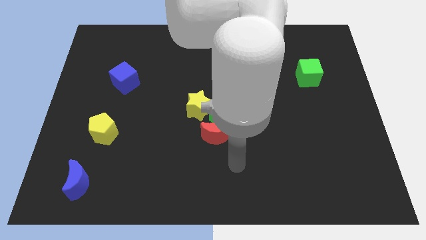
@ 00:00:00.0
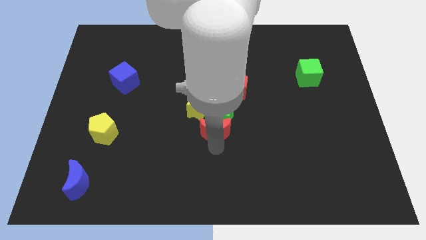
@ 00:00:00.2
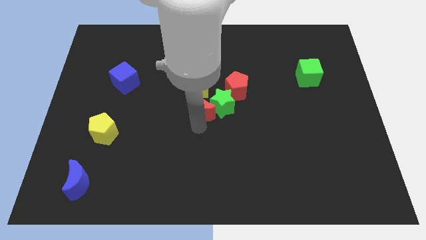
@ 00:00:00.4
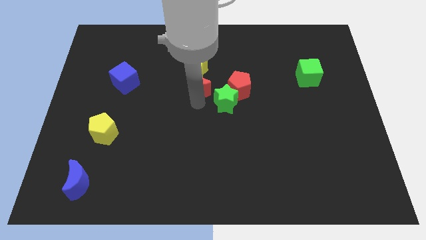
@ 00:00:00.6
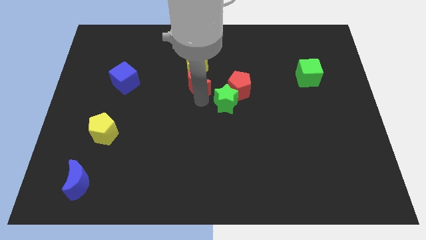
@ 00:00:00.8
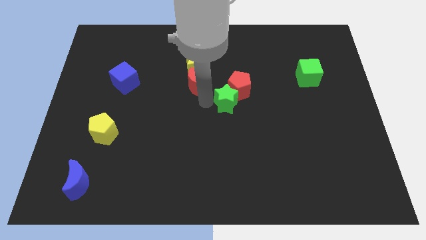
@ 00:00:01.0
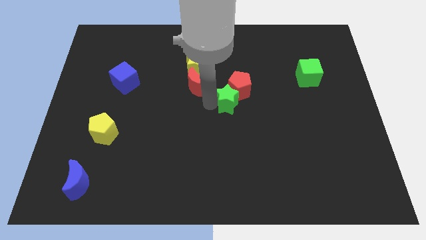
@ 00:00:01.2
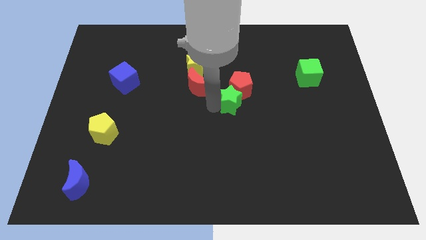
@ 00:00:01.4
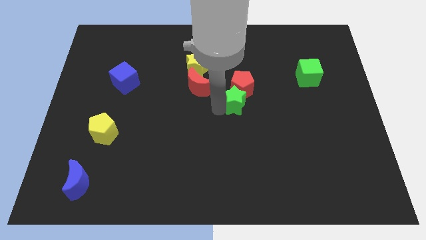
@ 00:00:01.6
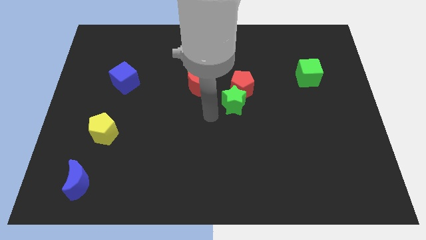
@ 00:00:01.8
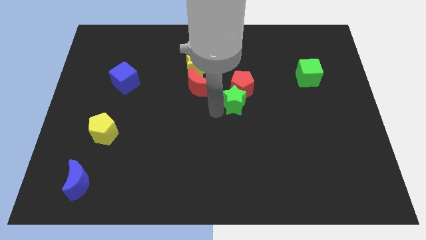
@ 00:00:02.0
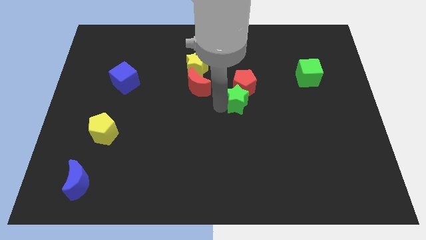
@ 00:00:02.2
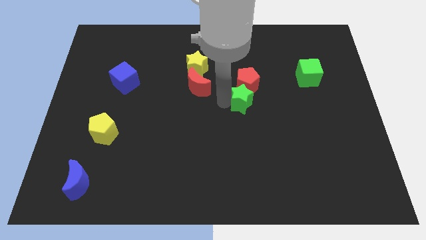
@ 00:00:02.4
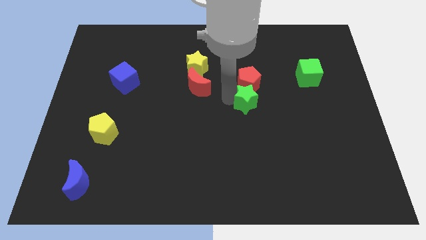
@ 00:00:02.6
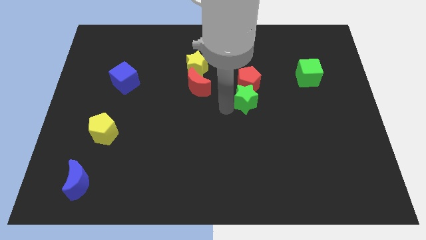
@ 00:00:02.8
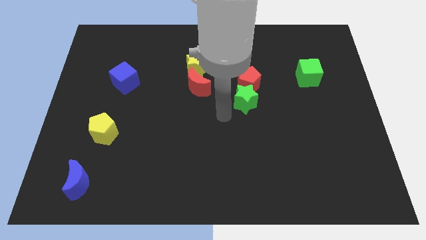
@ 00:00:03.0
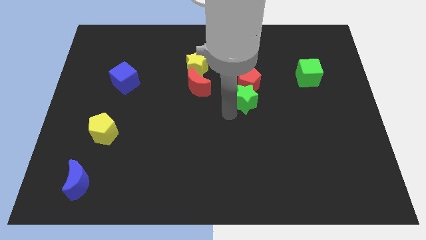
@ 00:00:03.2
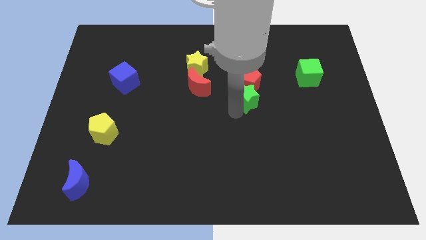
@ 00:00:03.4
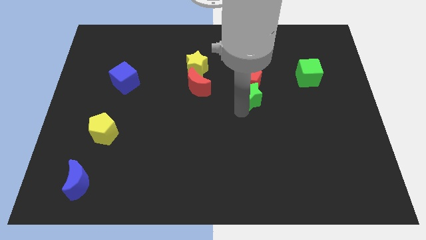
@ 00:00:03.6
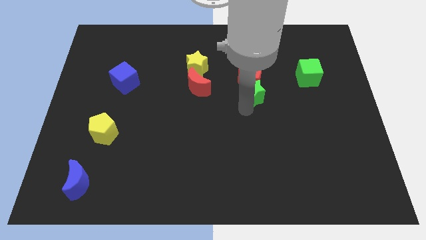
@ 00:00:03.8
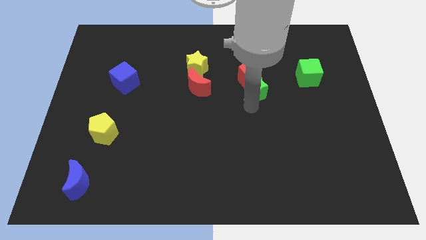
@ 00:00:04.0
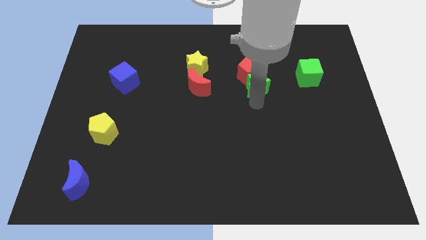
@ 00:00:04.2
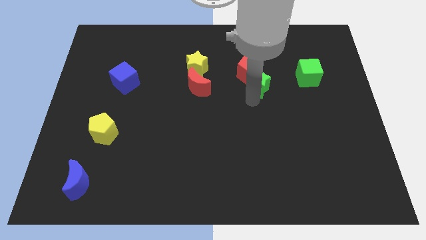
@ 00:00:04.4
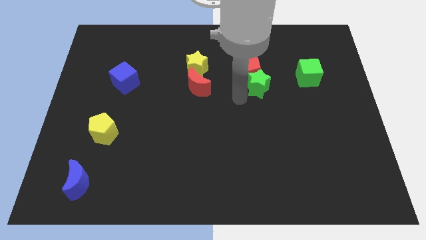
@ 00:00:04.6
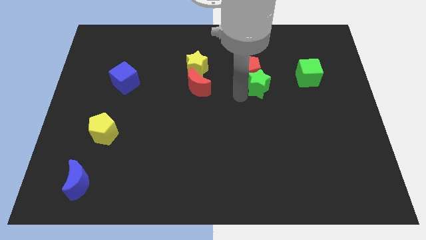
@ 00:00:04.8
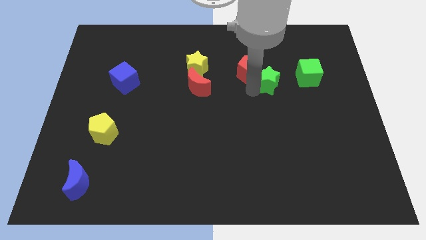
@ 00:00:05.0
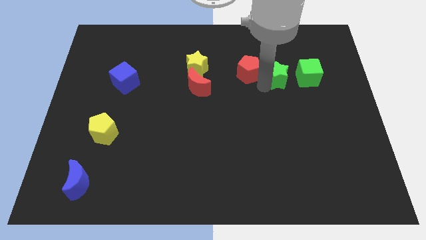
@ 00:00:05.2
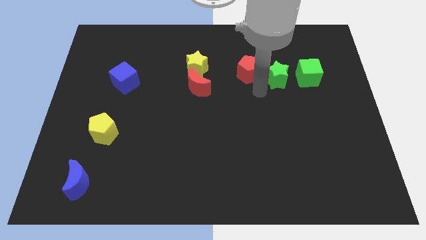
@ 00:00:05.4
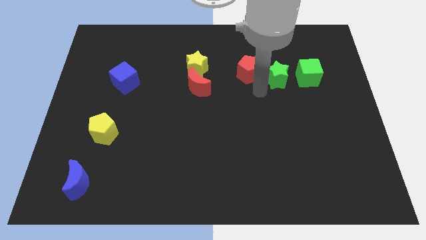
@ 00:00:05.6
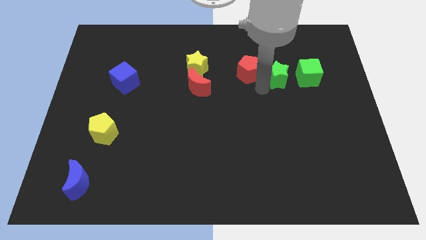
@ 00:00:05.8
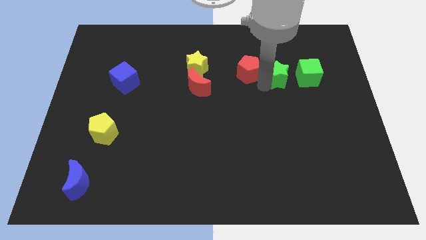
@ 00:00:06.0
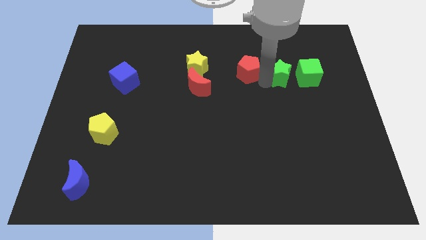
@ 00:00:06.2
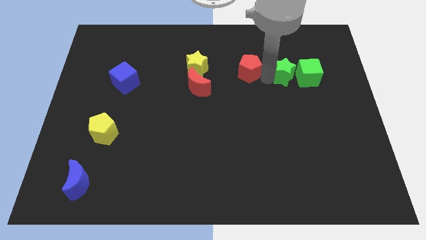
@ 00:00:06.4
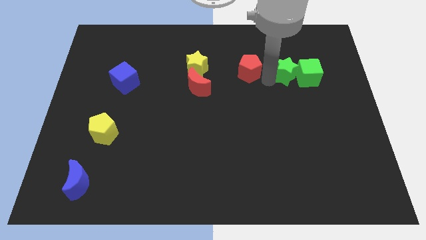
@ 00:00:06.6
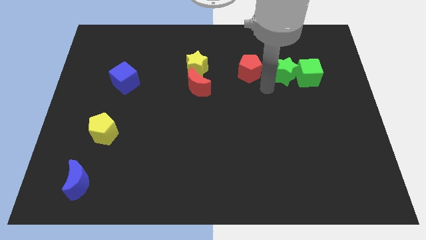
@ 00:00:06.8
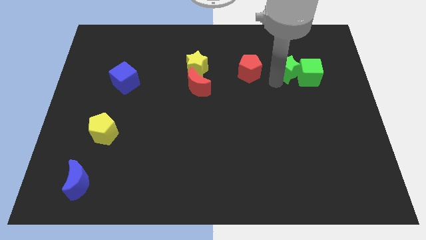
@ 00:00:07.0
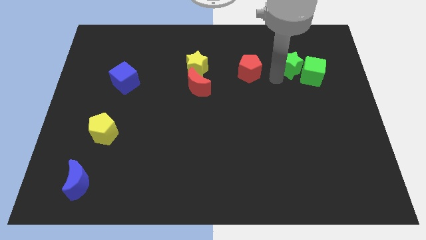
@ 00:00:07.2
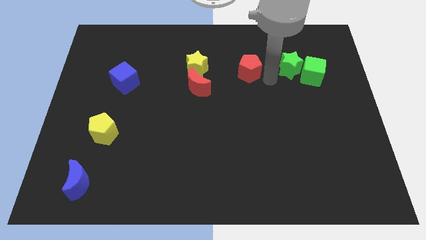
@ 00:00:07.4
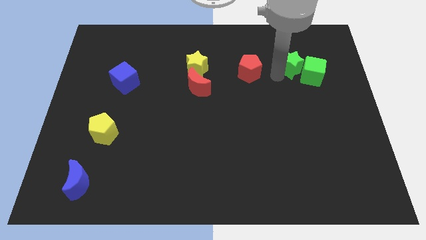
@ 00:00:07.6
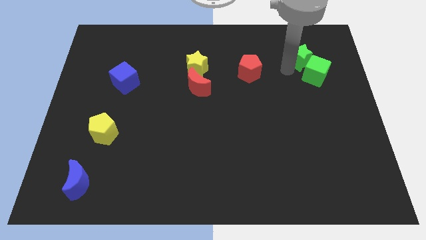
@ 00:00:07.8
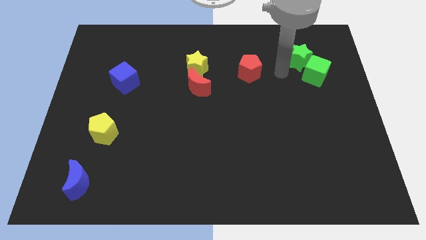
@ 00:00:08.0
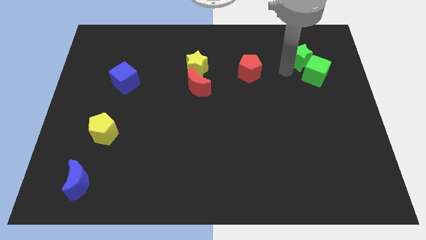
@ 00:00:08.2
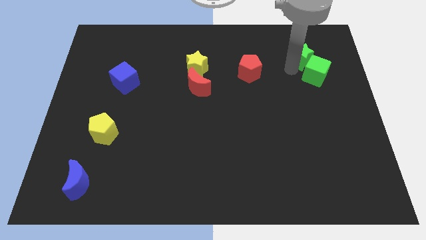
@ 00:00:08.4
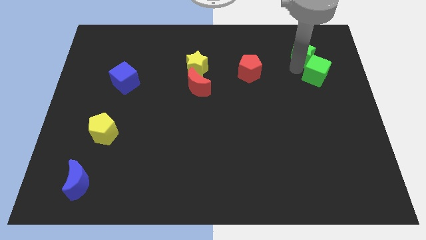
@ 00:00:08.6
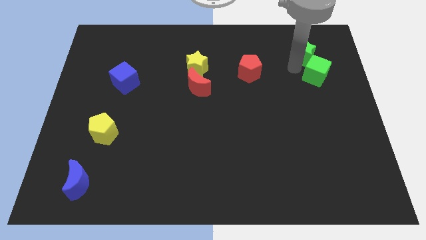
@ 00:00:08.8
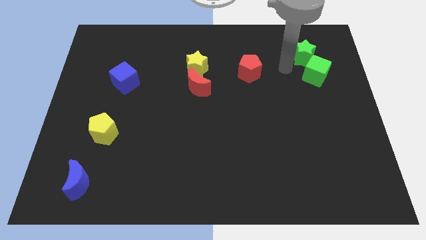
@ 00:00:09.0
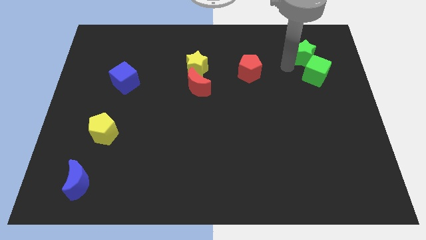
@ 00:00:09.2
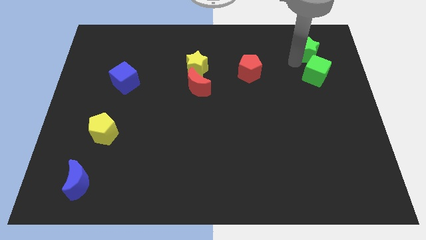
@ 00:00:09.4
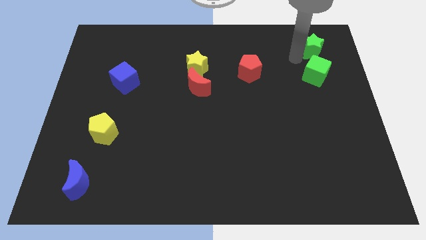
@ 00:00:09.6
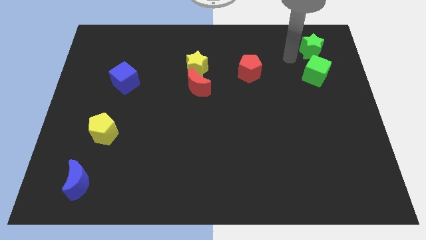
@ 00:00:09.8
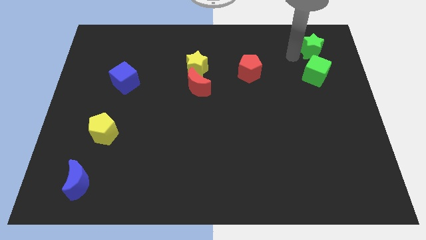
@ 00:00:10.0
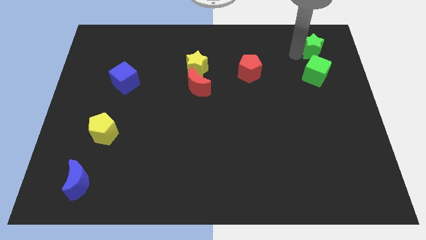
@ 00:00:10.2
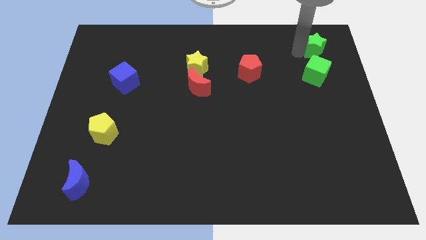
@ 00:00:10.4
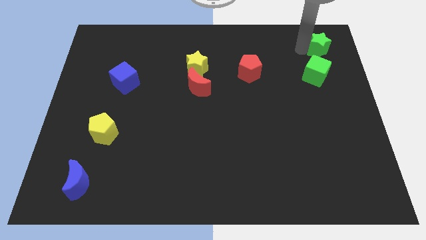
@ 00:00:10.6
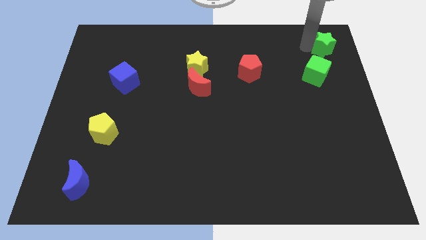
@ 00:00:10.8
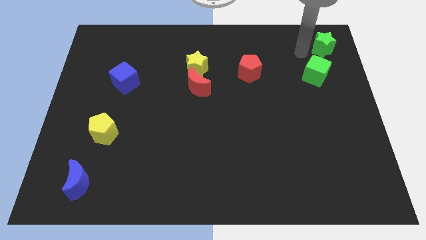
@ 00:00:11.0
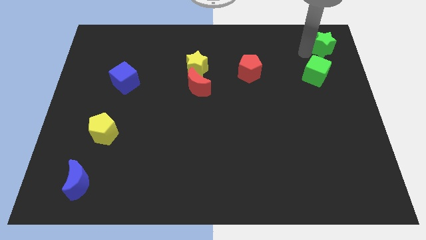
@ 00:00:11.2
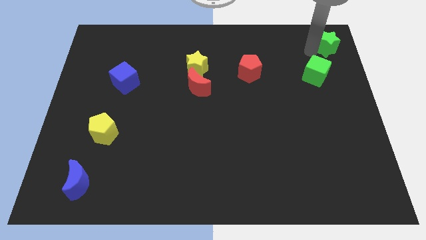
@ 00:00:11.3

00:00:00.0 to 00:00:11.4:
slide the green star to the top right of the board
